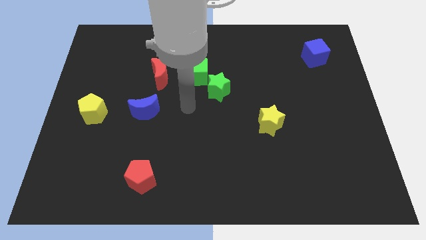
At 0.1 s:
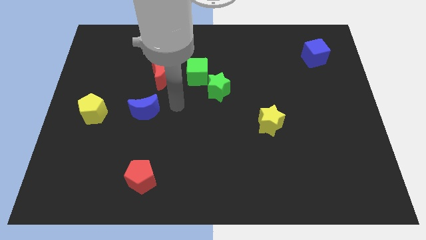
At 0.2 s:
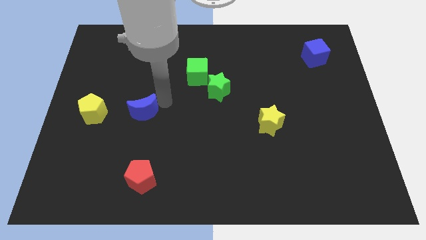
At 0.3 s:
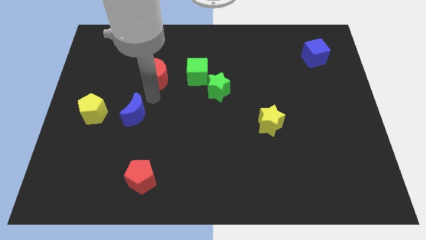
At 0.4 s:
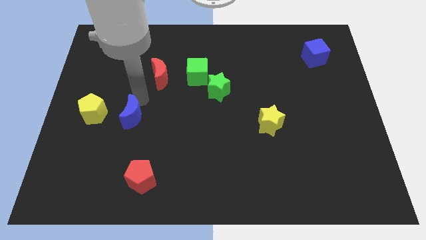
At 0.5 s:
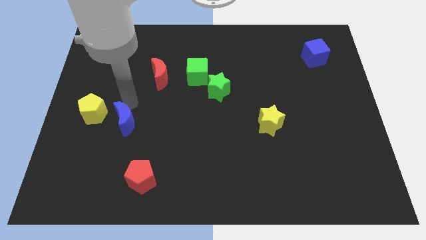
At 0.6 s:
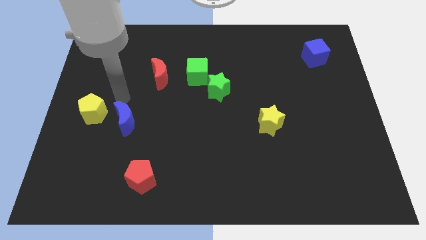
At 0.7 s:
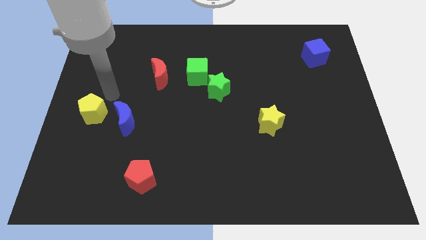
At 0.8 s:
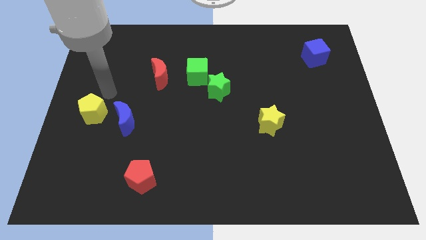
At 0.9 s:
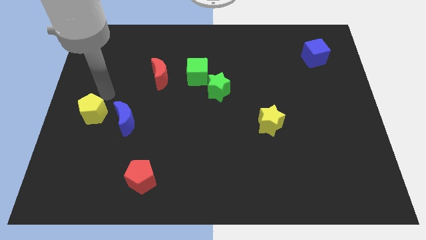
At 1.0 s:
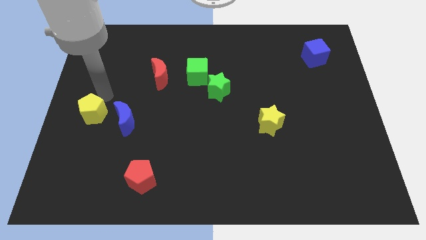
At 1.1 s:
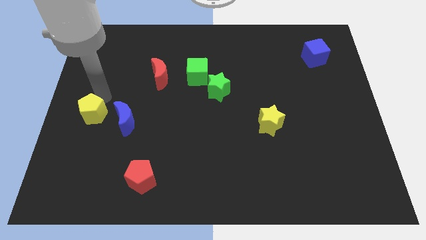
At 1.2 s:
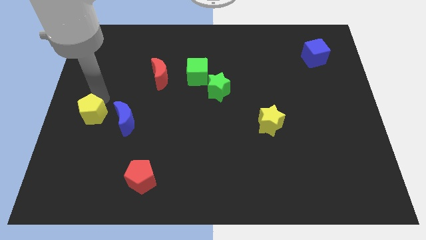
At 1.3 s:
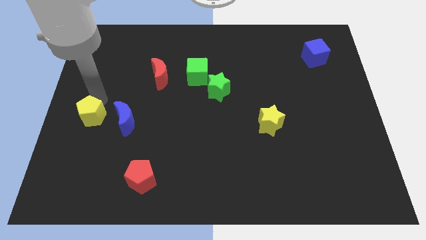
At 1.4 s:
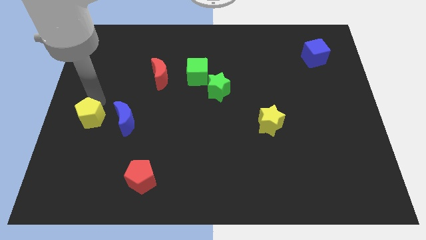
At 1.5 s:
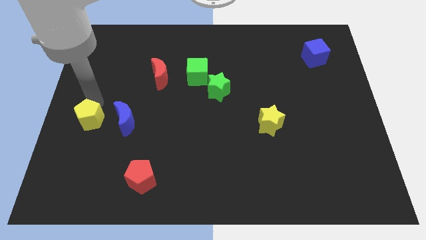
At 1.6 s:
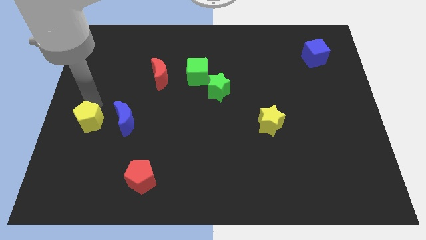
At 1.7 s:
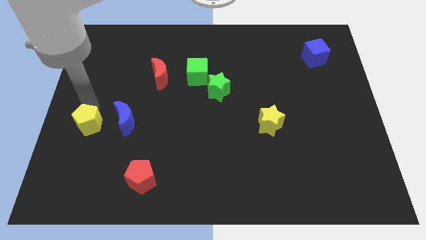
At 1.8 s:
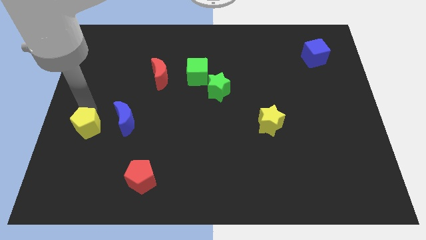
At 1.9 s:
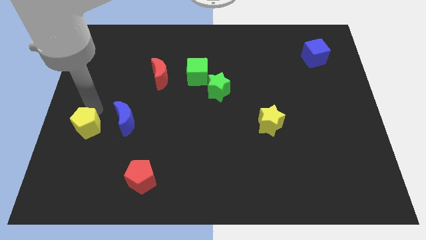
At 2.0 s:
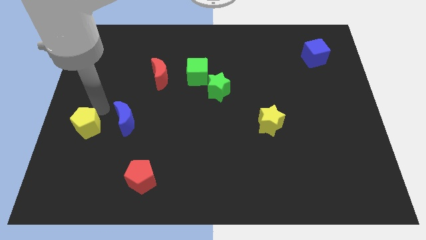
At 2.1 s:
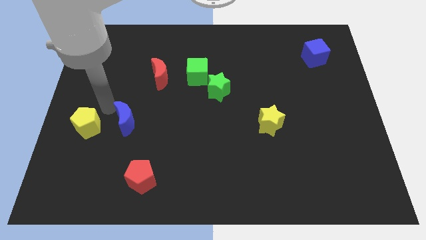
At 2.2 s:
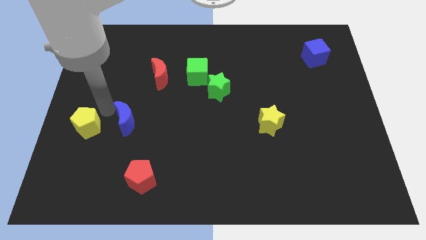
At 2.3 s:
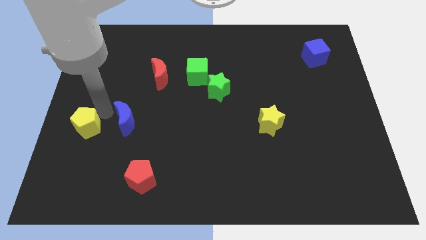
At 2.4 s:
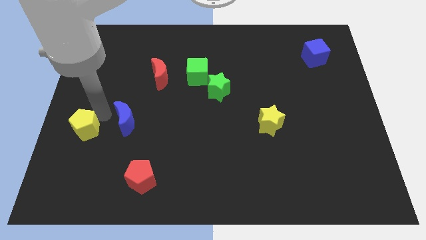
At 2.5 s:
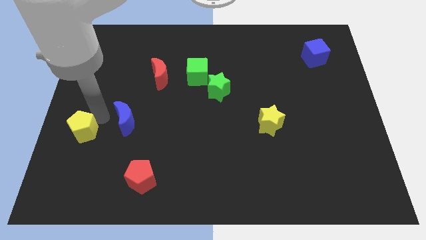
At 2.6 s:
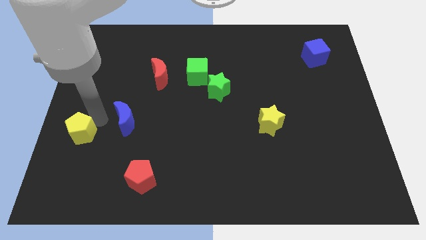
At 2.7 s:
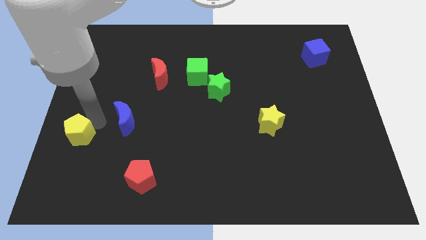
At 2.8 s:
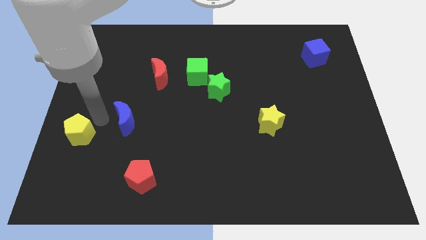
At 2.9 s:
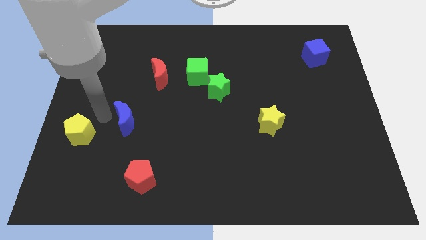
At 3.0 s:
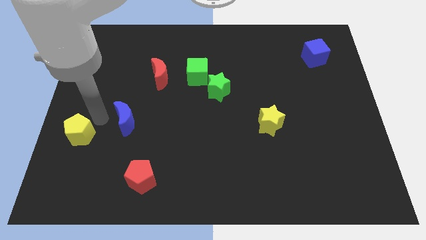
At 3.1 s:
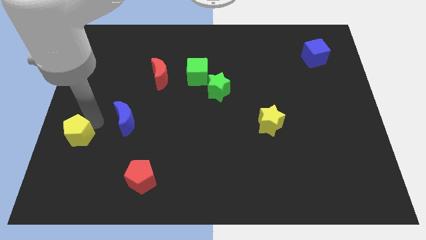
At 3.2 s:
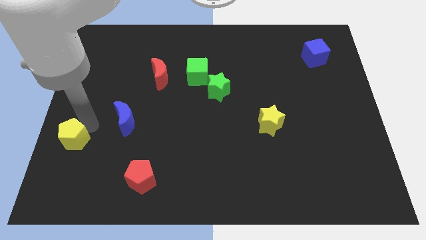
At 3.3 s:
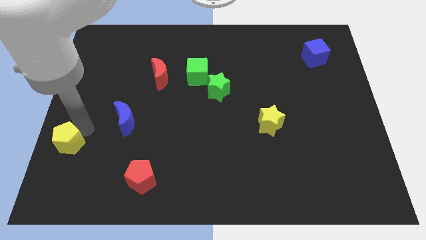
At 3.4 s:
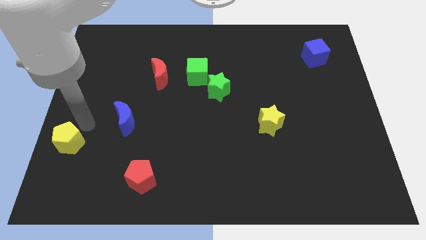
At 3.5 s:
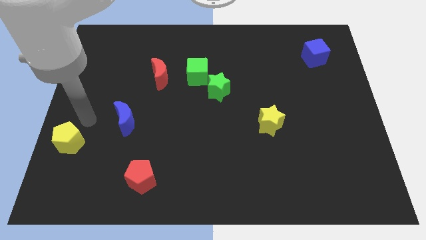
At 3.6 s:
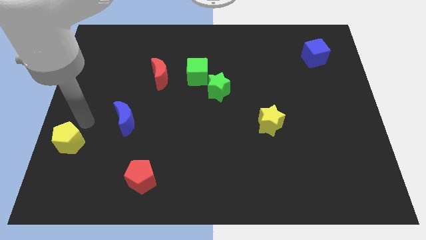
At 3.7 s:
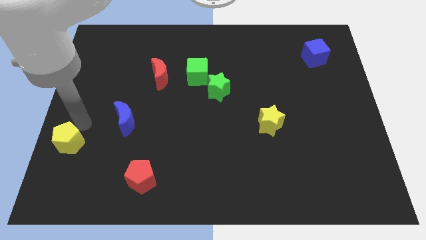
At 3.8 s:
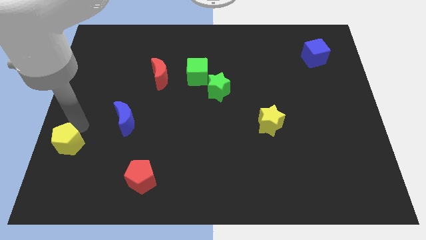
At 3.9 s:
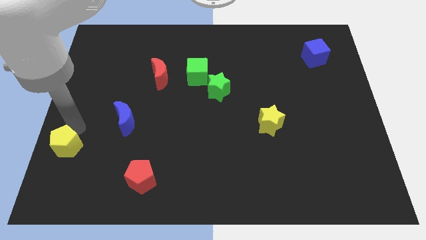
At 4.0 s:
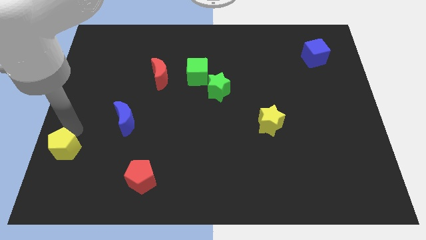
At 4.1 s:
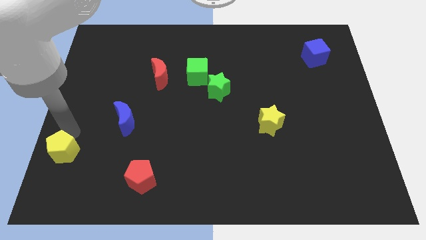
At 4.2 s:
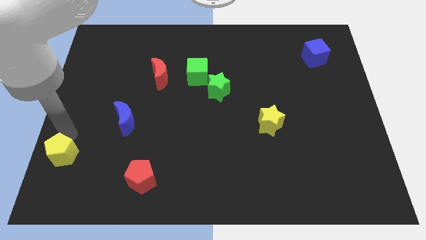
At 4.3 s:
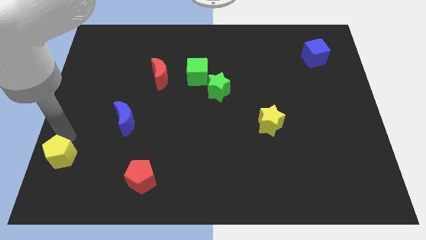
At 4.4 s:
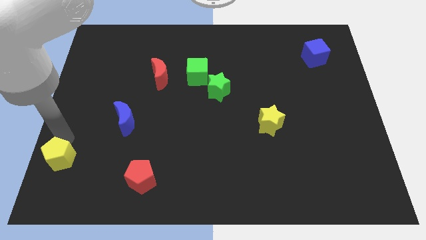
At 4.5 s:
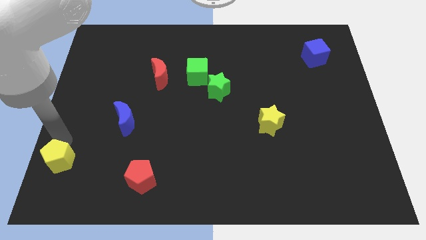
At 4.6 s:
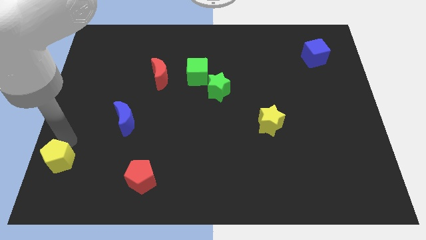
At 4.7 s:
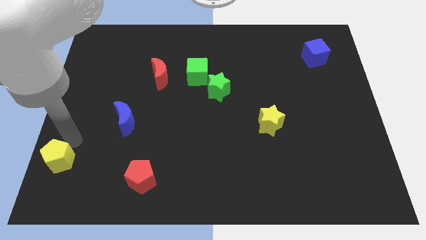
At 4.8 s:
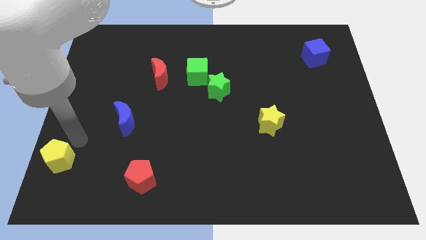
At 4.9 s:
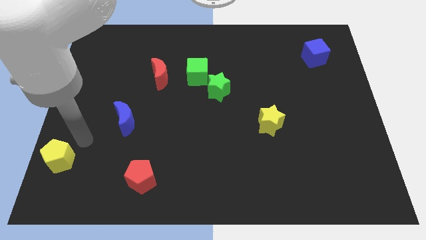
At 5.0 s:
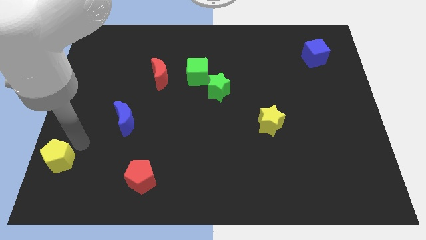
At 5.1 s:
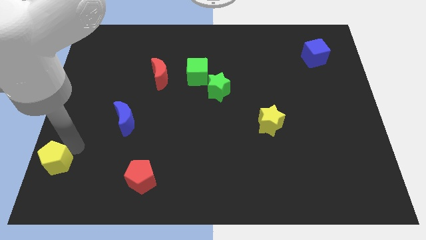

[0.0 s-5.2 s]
put the yellow pentagon to the bottom left
